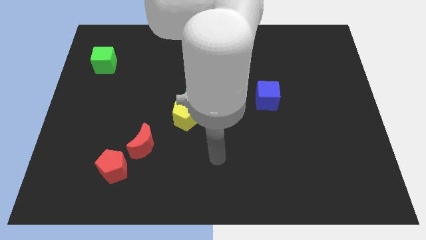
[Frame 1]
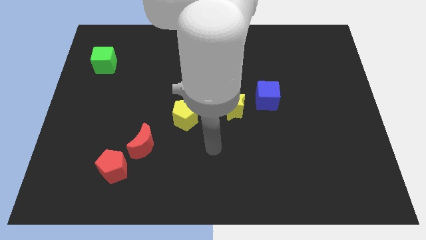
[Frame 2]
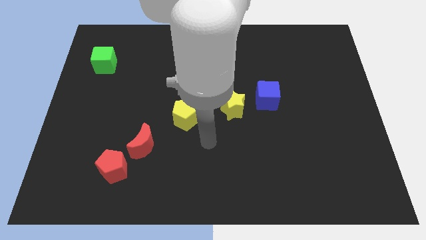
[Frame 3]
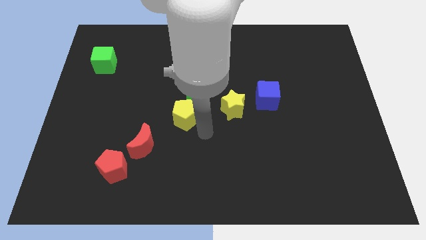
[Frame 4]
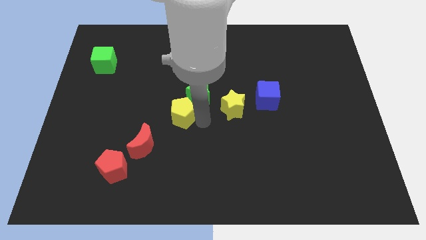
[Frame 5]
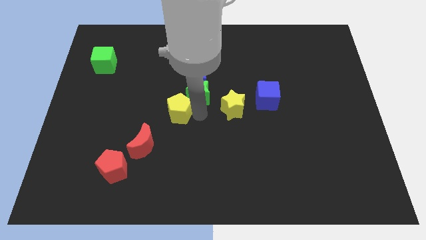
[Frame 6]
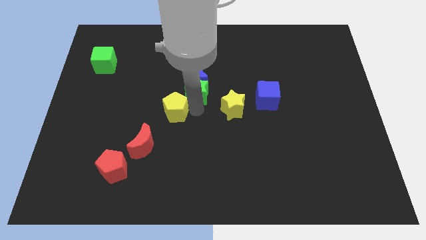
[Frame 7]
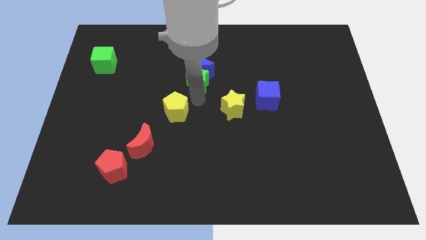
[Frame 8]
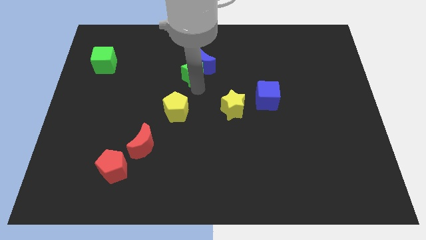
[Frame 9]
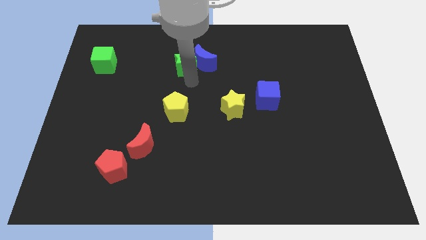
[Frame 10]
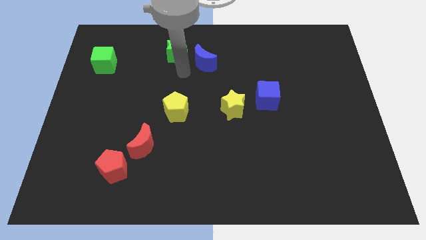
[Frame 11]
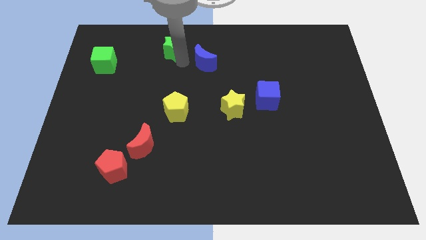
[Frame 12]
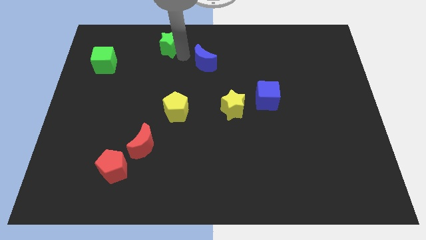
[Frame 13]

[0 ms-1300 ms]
pull the blue moon apart from the green star

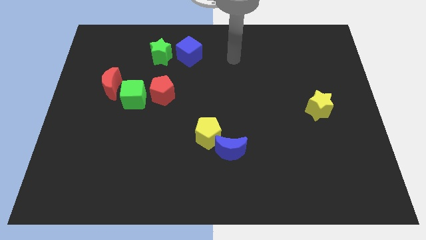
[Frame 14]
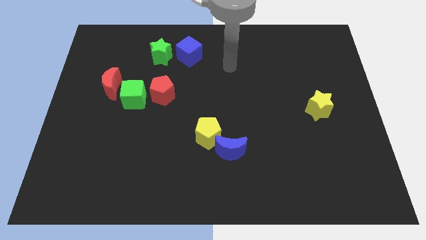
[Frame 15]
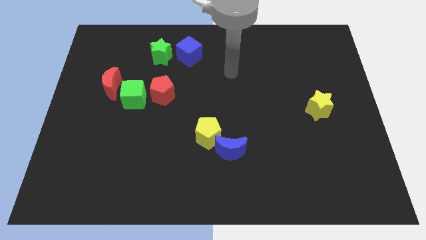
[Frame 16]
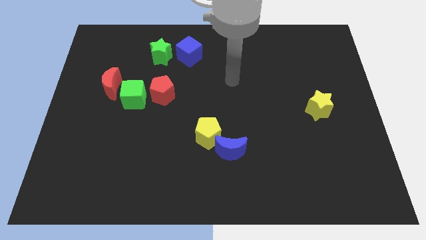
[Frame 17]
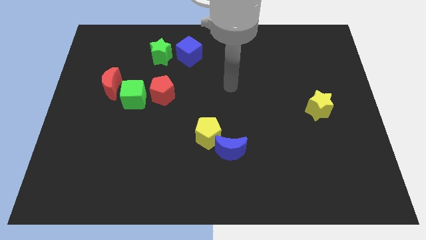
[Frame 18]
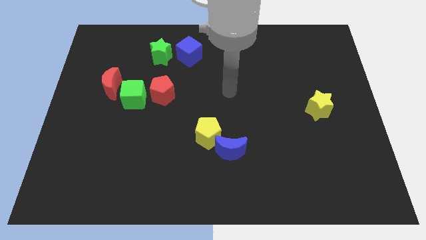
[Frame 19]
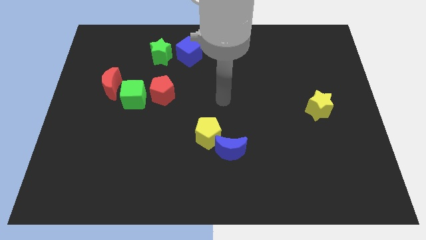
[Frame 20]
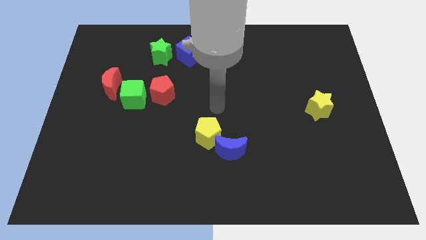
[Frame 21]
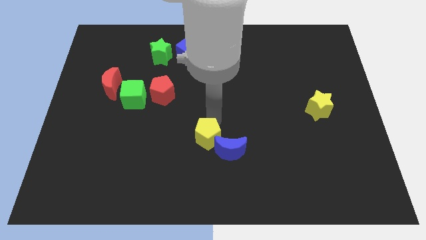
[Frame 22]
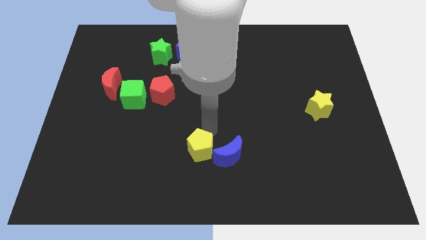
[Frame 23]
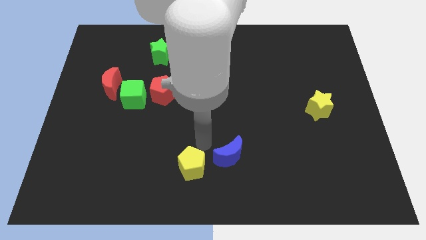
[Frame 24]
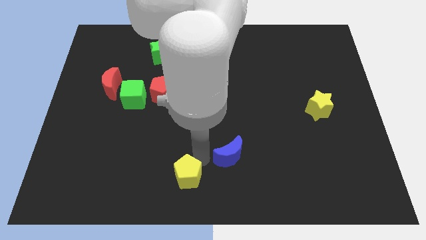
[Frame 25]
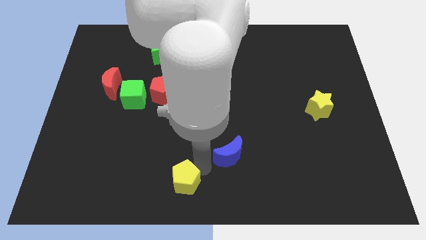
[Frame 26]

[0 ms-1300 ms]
move the blue moon away from the yellow pentagon

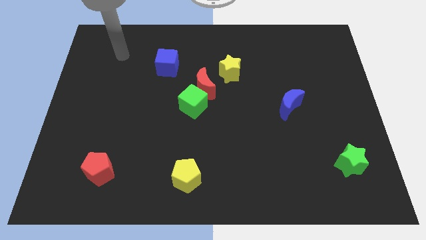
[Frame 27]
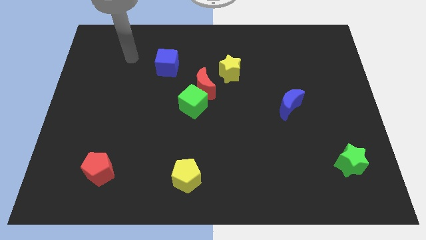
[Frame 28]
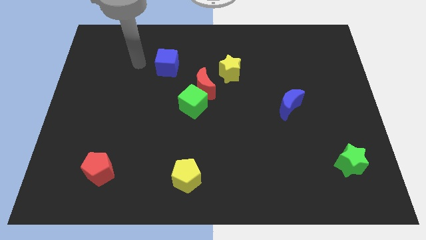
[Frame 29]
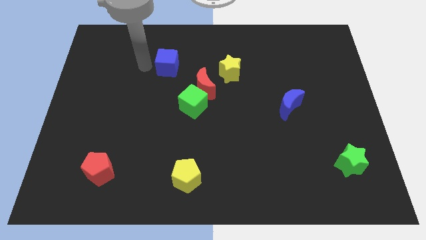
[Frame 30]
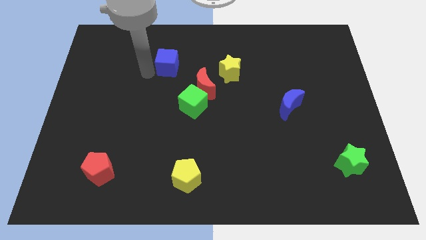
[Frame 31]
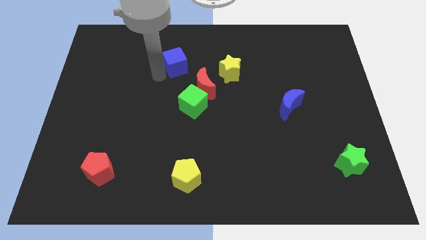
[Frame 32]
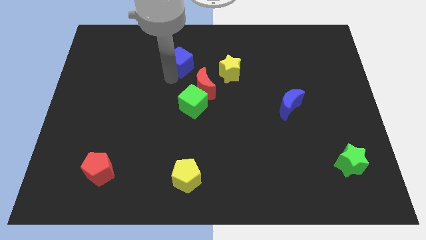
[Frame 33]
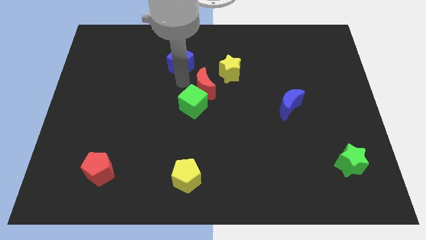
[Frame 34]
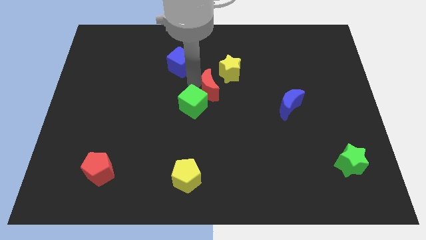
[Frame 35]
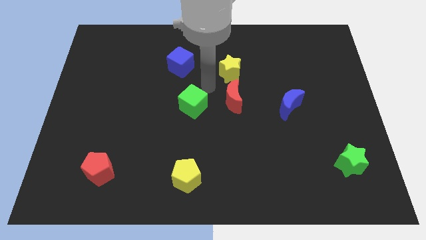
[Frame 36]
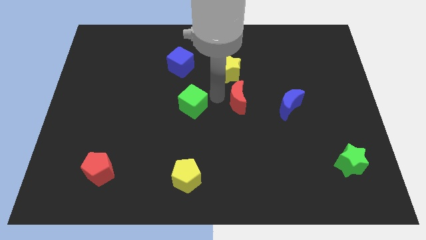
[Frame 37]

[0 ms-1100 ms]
move the green cube away from the red moon

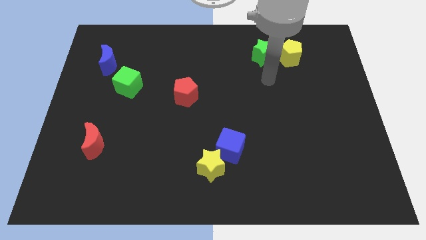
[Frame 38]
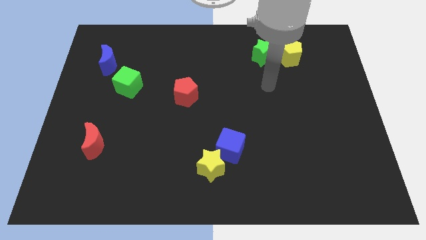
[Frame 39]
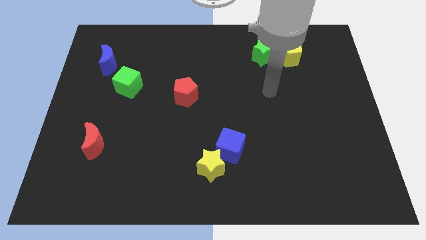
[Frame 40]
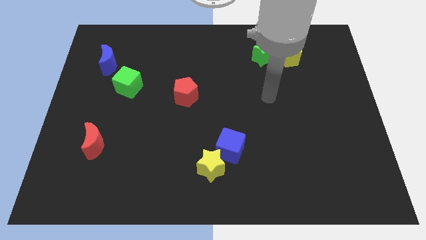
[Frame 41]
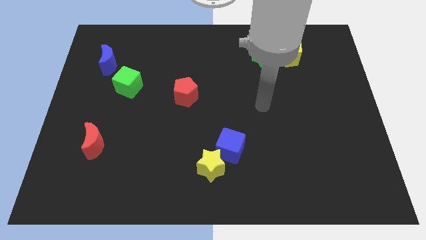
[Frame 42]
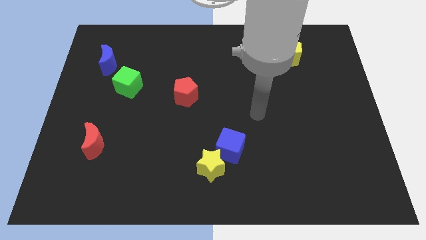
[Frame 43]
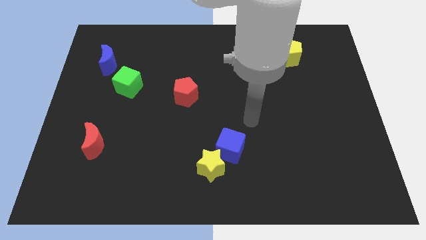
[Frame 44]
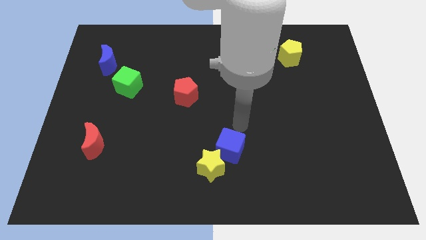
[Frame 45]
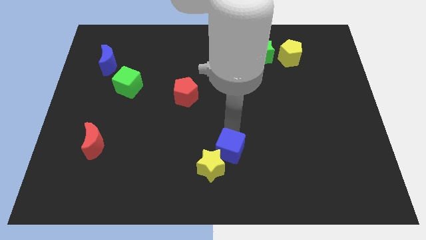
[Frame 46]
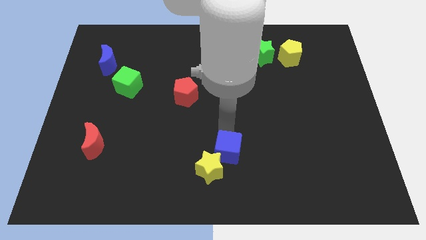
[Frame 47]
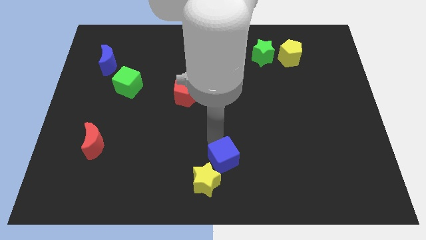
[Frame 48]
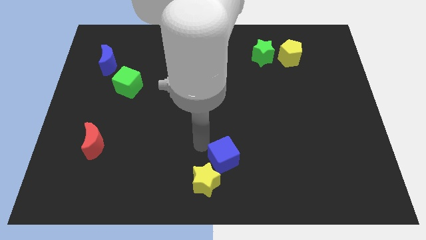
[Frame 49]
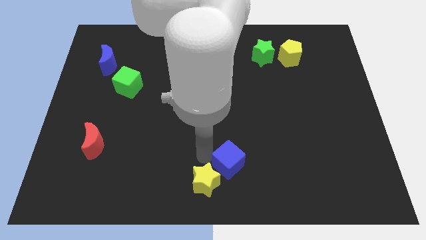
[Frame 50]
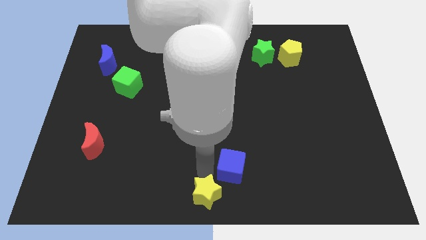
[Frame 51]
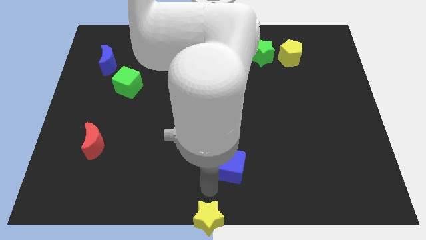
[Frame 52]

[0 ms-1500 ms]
separate the blue cube from the yellow star

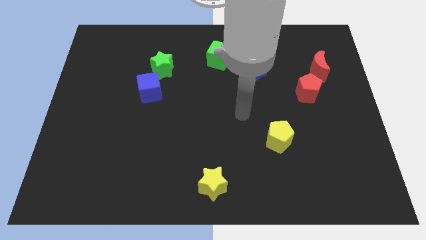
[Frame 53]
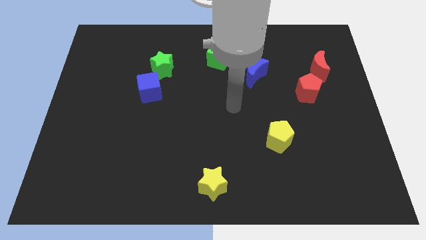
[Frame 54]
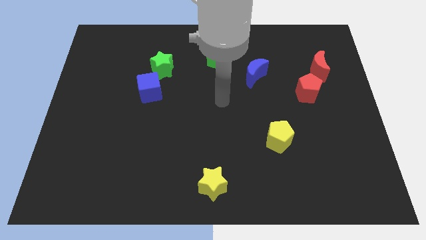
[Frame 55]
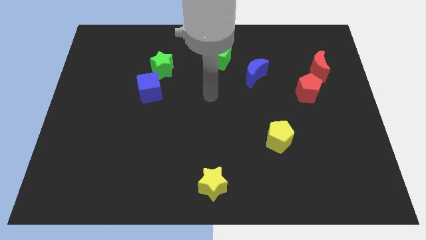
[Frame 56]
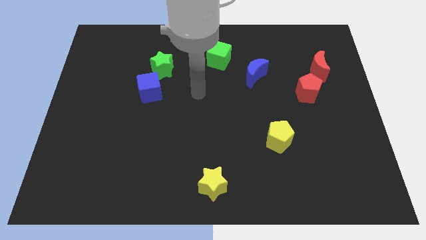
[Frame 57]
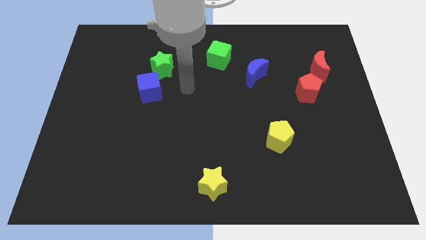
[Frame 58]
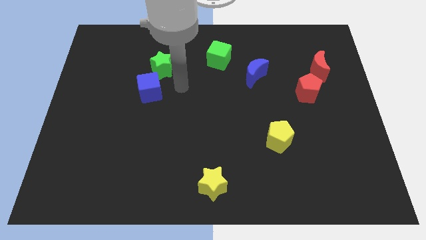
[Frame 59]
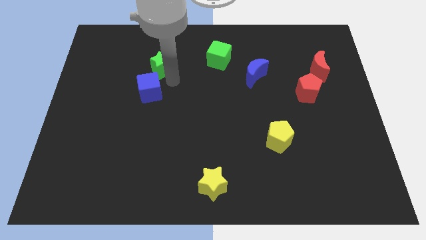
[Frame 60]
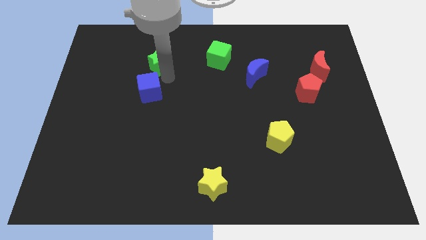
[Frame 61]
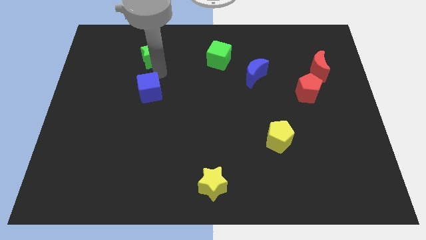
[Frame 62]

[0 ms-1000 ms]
pull the blue cube apart from the green star

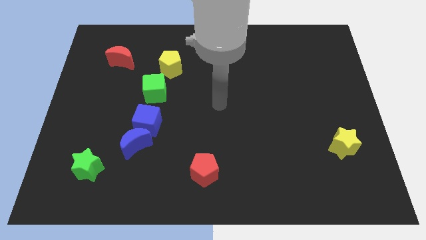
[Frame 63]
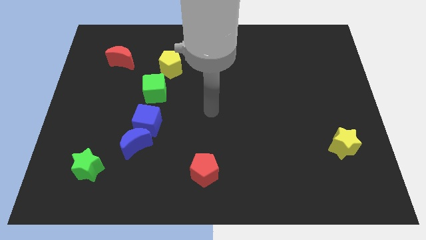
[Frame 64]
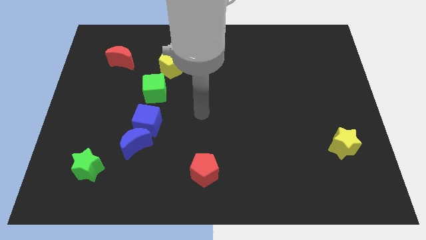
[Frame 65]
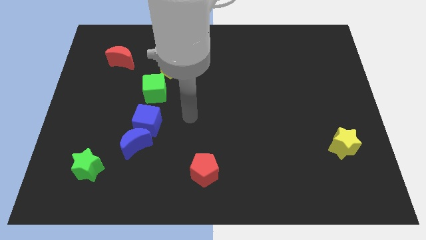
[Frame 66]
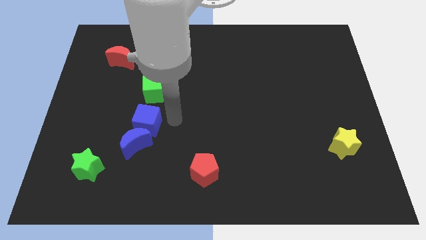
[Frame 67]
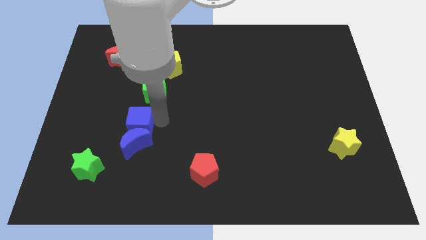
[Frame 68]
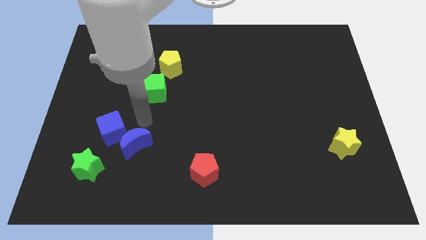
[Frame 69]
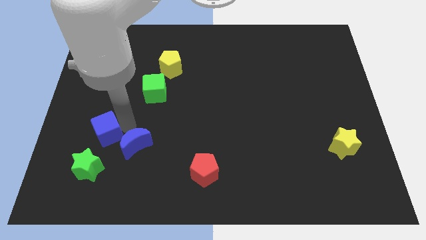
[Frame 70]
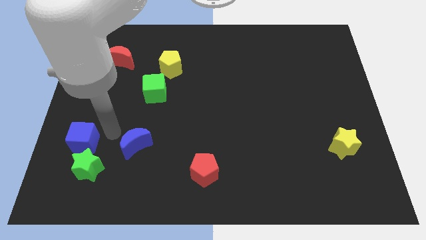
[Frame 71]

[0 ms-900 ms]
pull the blue moon apart from the blue cube

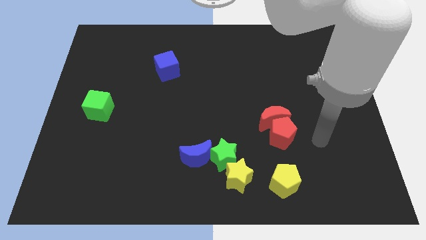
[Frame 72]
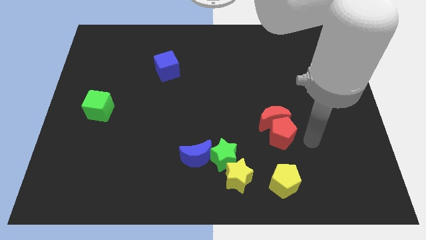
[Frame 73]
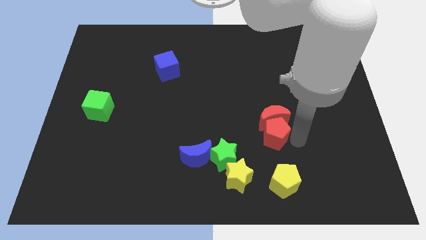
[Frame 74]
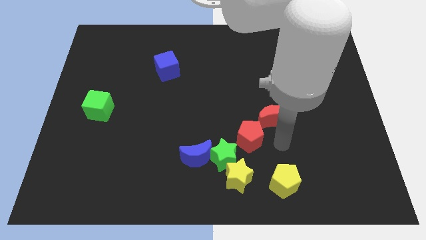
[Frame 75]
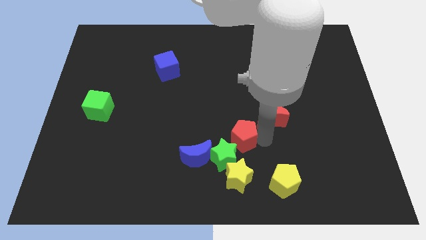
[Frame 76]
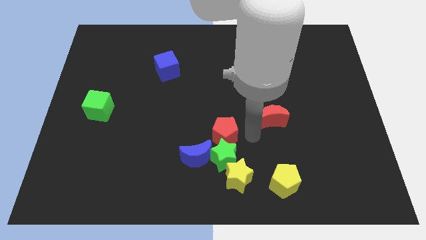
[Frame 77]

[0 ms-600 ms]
pull the red moon apart from the red pentagon

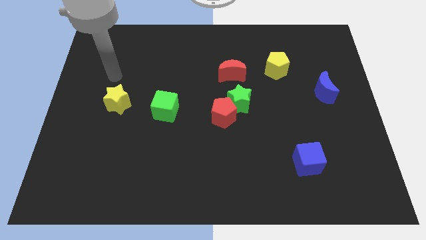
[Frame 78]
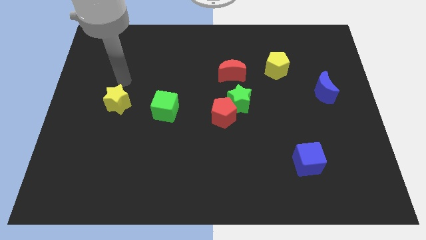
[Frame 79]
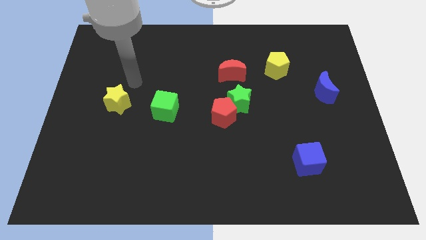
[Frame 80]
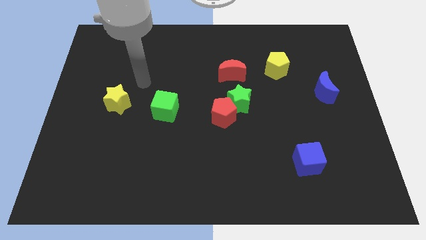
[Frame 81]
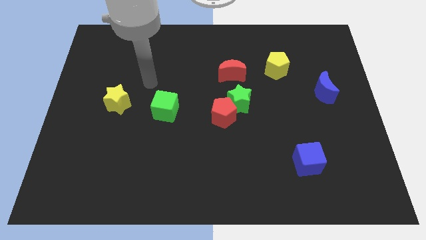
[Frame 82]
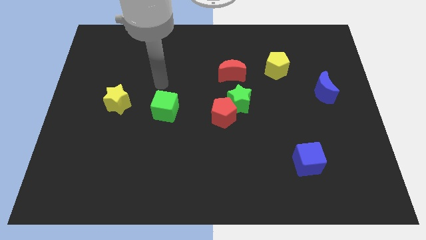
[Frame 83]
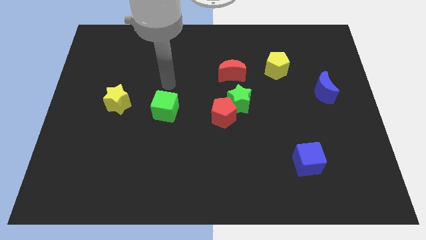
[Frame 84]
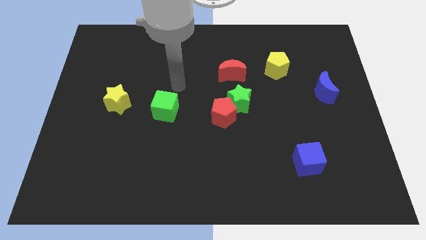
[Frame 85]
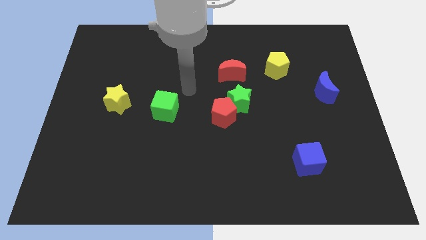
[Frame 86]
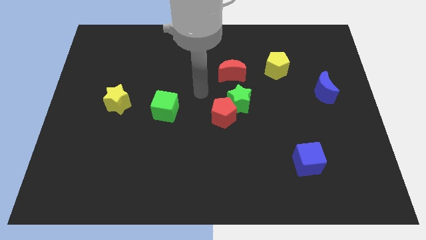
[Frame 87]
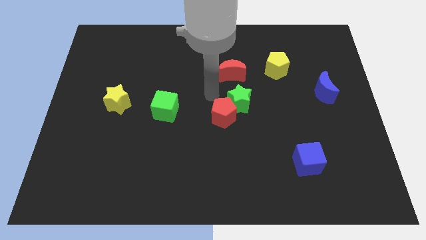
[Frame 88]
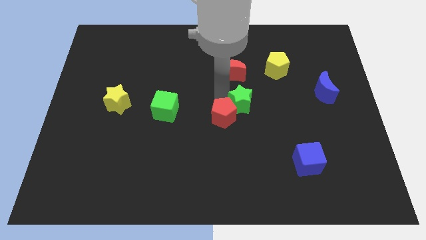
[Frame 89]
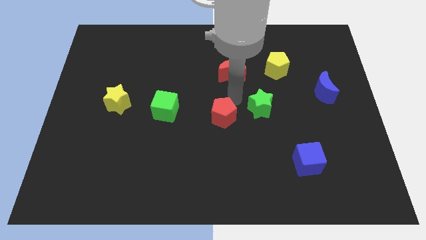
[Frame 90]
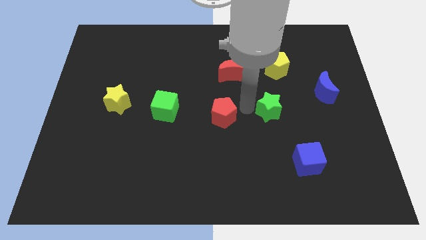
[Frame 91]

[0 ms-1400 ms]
separate the red pentagon from the green star
